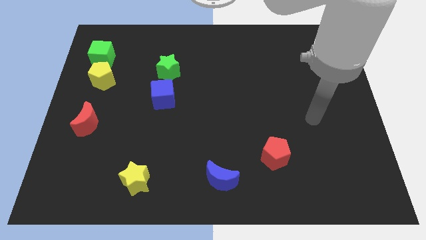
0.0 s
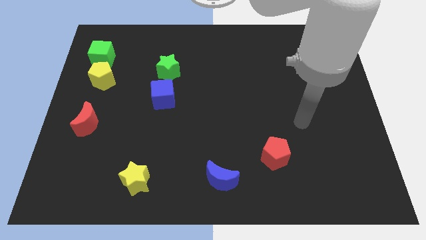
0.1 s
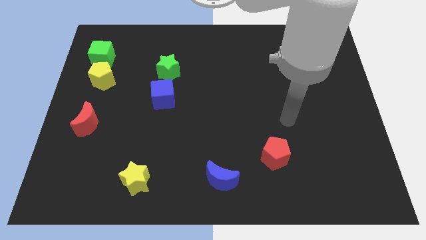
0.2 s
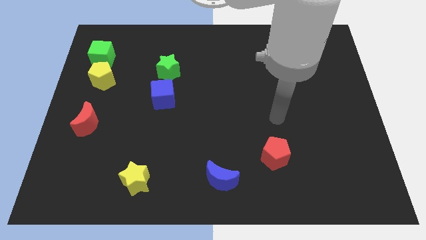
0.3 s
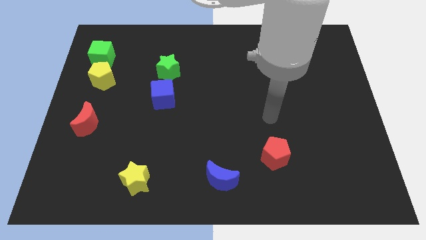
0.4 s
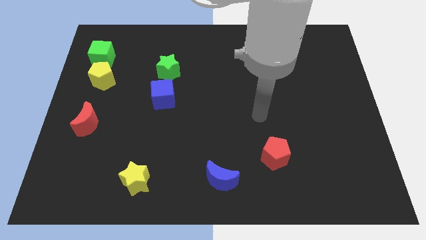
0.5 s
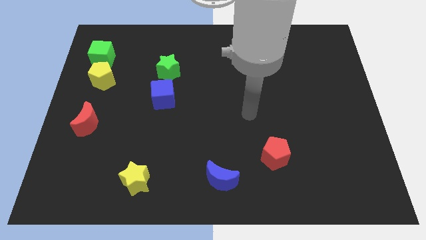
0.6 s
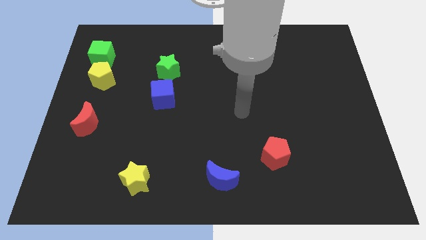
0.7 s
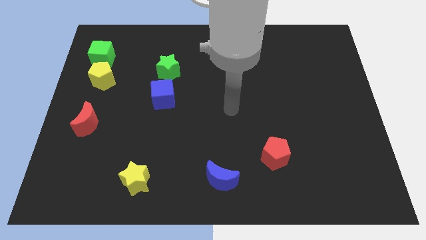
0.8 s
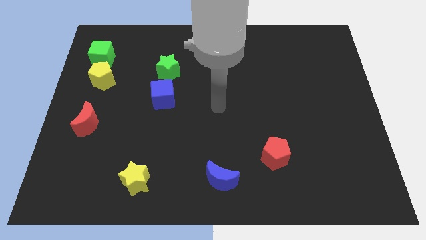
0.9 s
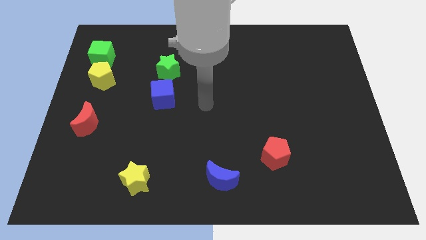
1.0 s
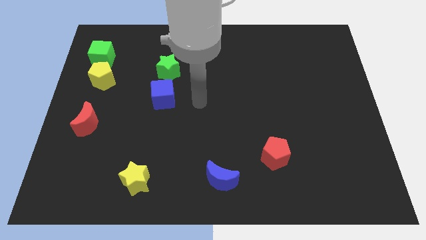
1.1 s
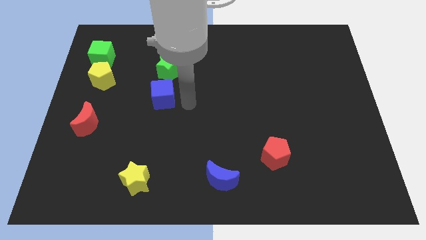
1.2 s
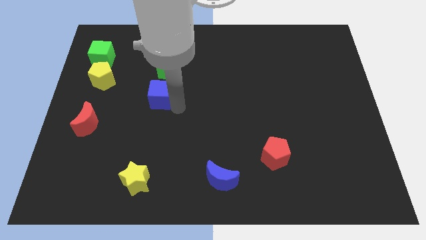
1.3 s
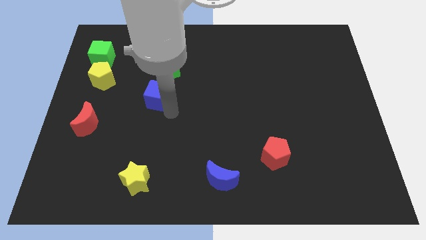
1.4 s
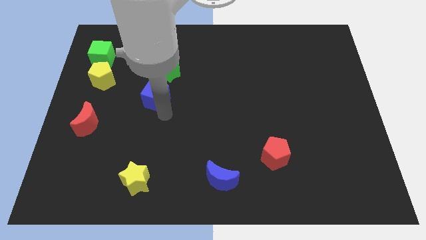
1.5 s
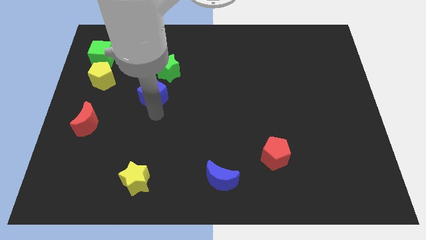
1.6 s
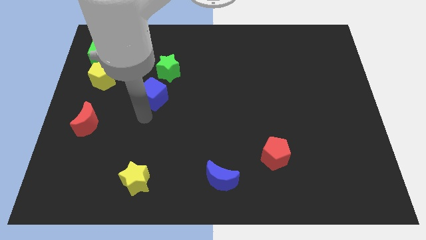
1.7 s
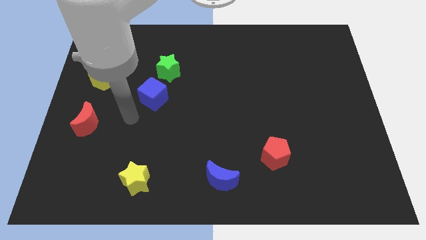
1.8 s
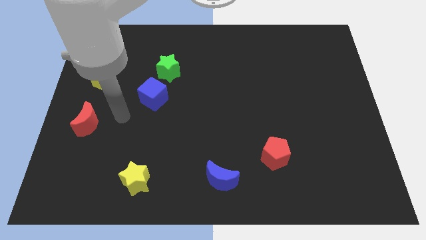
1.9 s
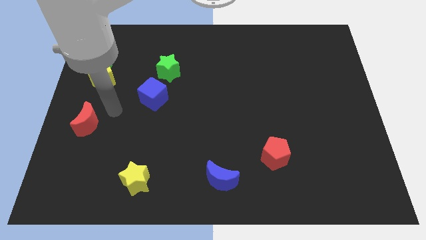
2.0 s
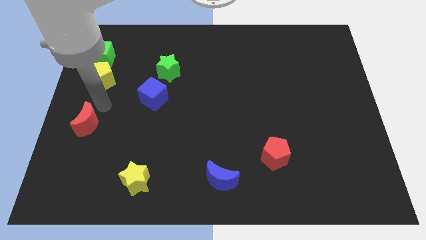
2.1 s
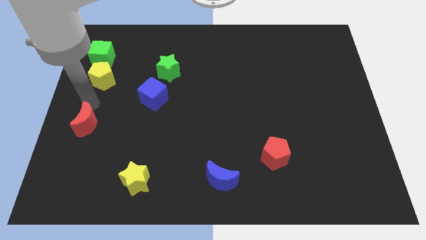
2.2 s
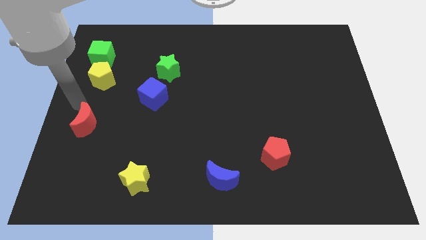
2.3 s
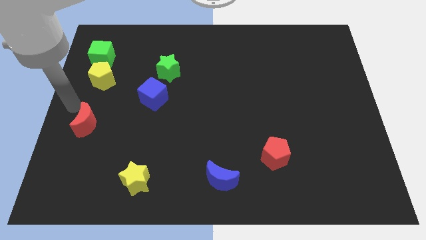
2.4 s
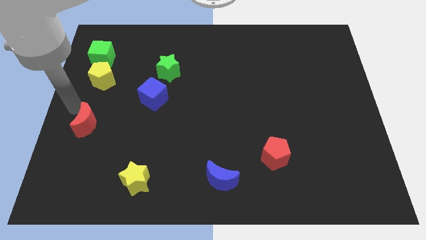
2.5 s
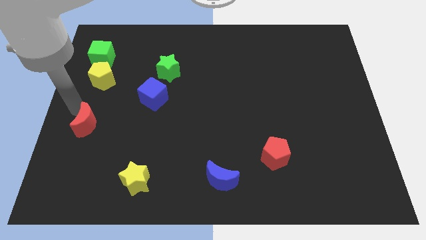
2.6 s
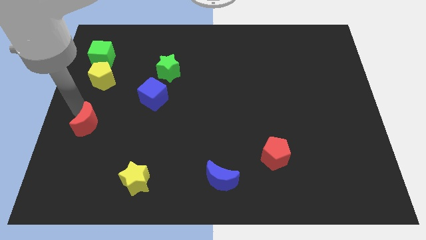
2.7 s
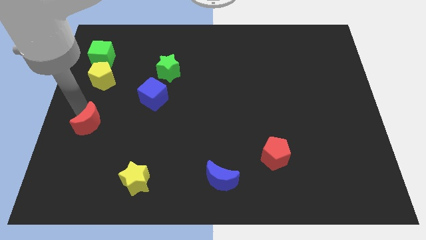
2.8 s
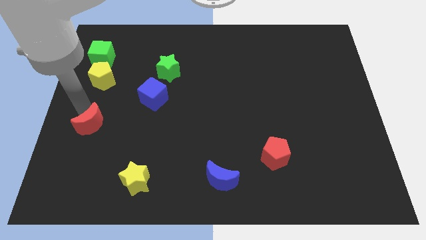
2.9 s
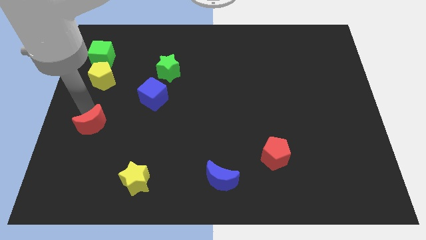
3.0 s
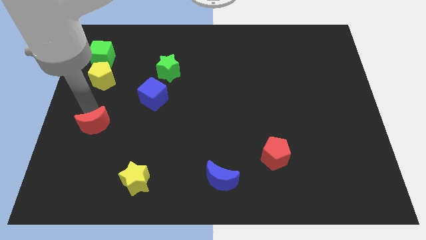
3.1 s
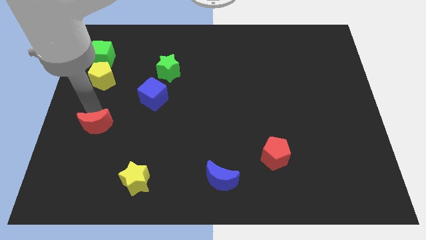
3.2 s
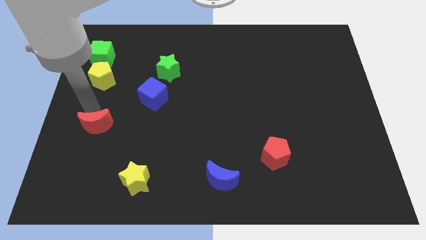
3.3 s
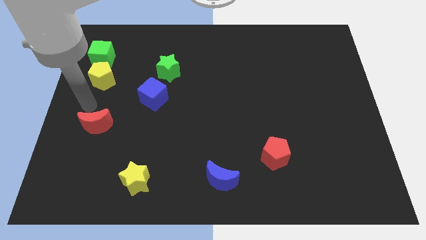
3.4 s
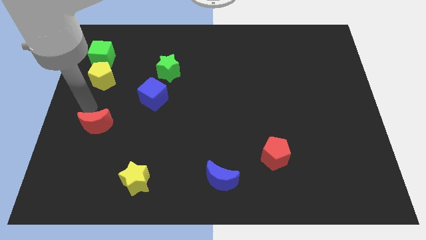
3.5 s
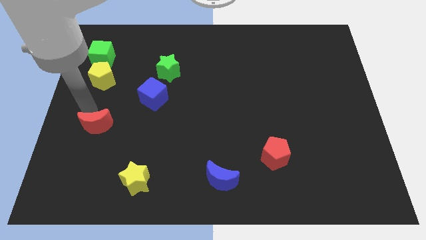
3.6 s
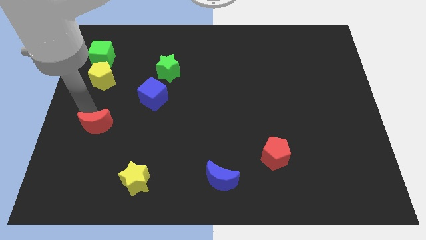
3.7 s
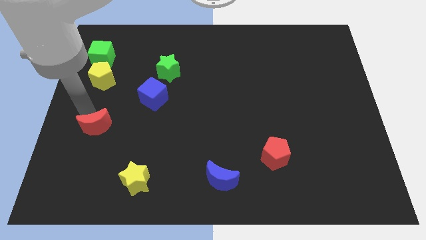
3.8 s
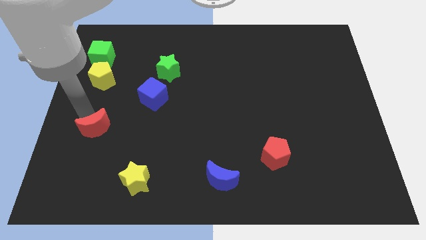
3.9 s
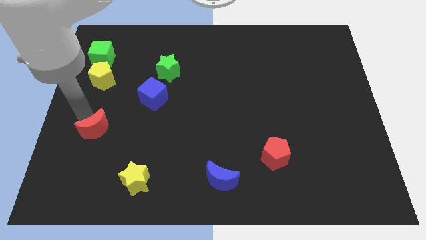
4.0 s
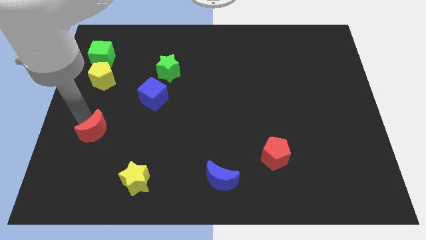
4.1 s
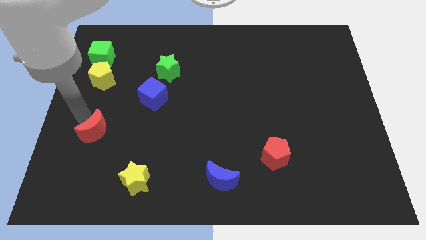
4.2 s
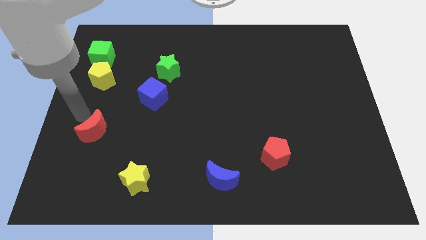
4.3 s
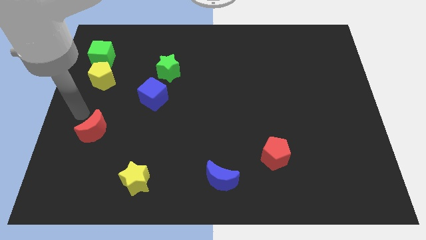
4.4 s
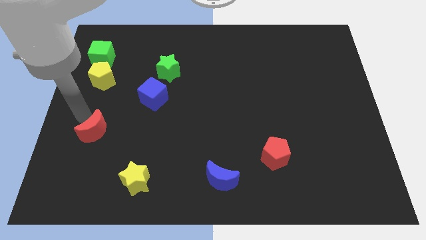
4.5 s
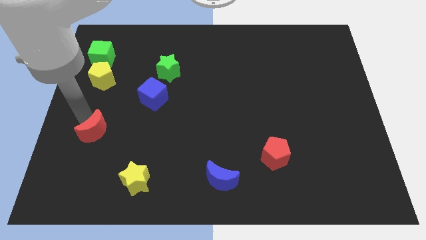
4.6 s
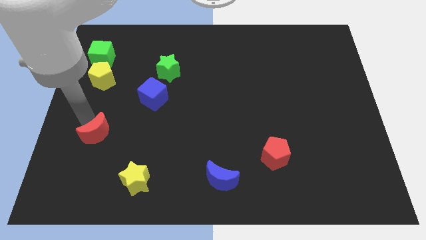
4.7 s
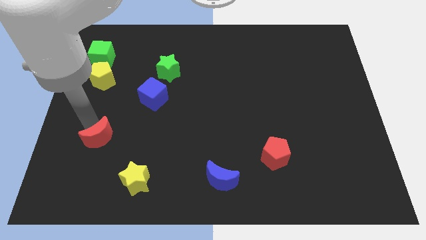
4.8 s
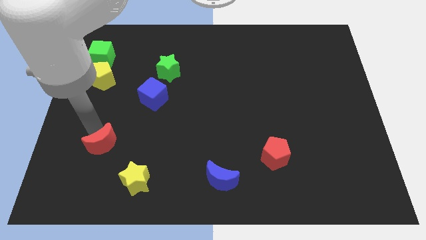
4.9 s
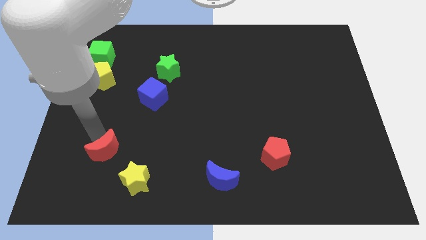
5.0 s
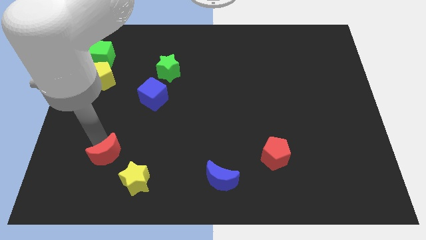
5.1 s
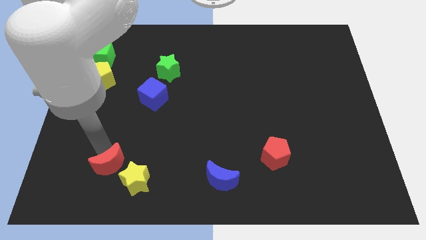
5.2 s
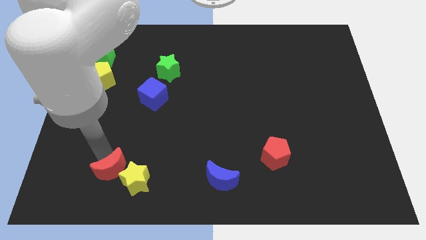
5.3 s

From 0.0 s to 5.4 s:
put the red moon to the yellow star

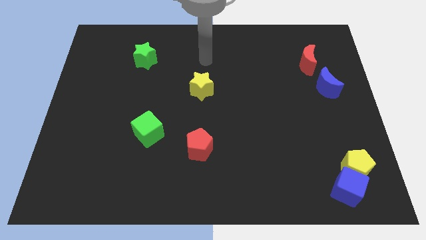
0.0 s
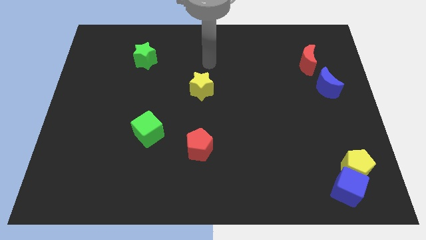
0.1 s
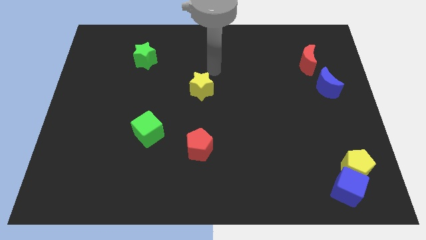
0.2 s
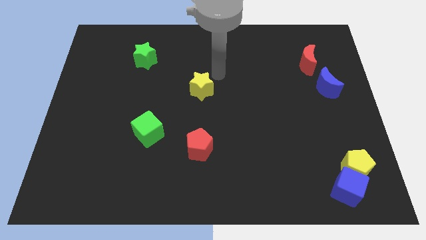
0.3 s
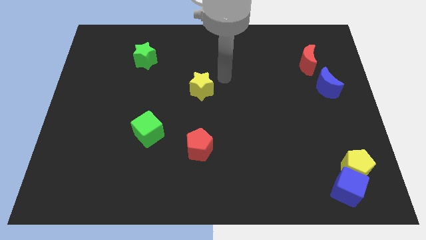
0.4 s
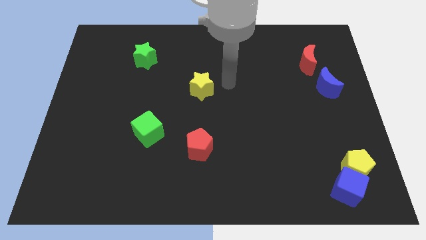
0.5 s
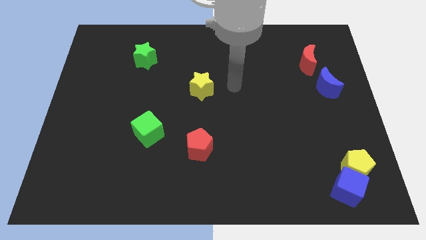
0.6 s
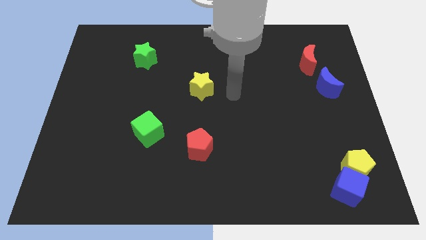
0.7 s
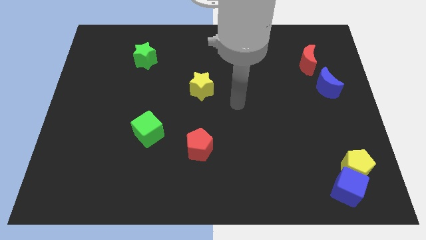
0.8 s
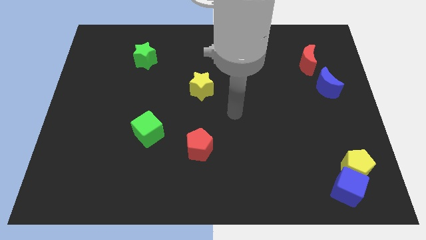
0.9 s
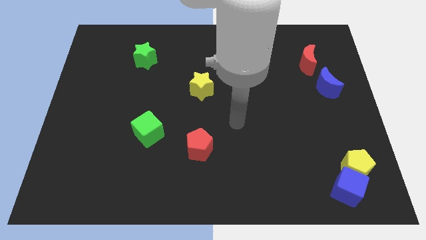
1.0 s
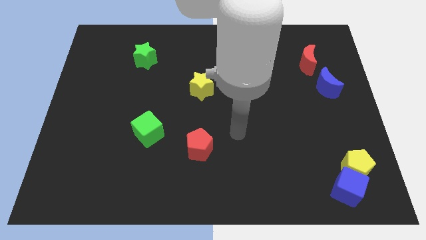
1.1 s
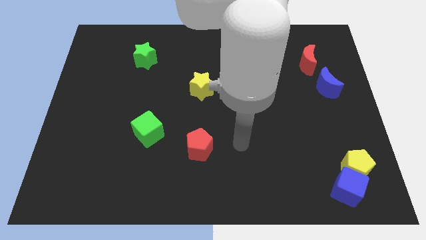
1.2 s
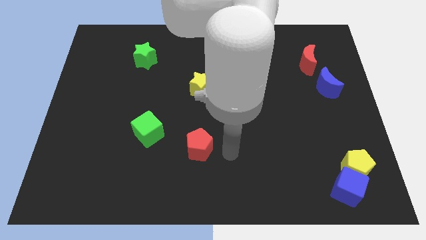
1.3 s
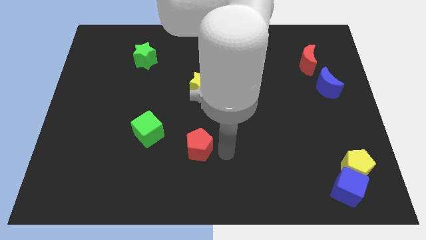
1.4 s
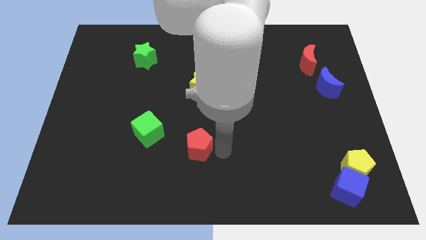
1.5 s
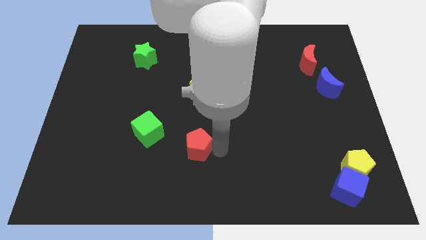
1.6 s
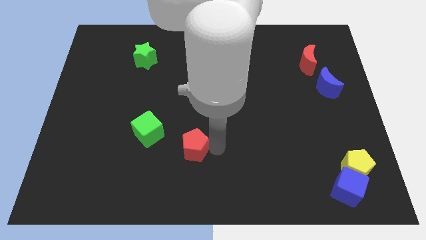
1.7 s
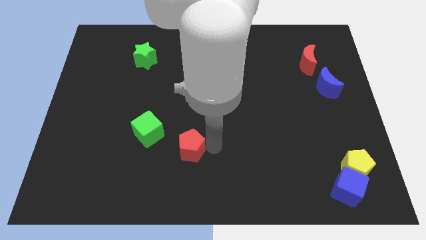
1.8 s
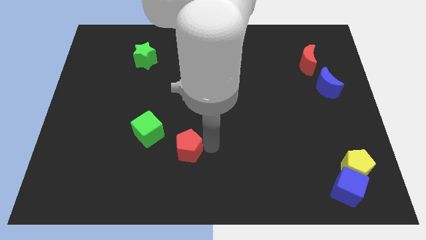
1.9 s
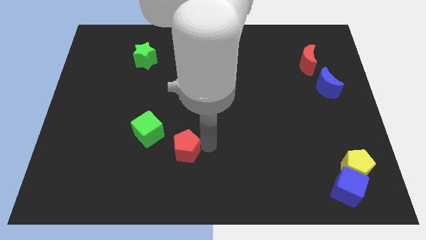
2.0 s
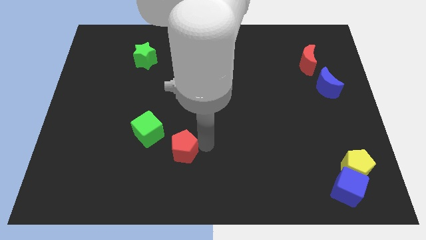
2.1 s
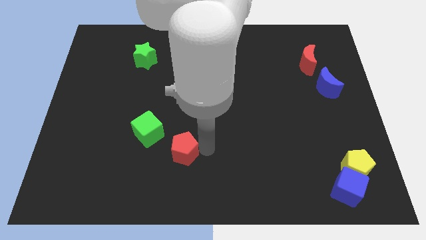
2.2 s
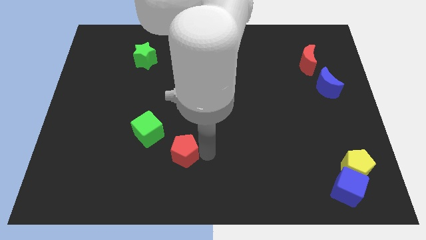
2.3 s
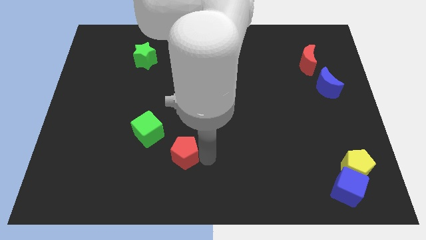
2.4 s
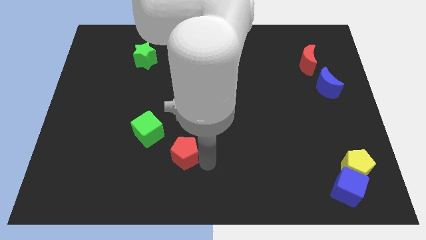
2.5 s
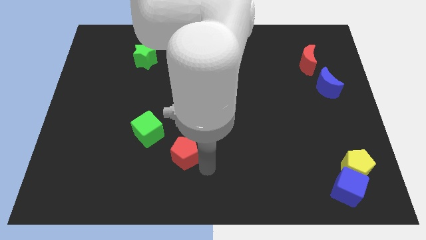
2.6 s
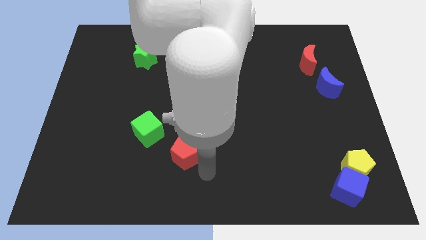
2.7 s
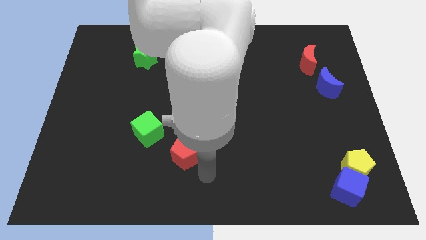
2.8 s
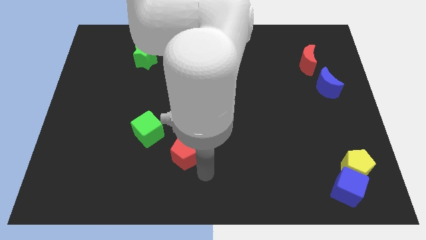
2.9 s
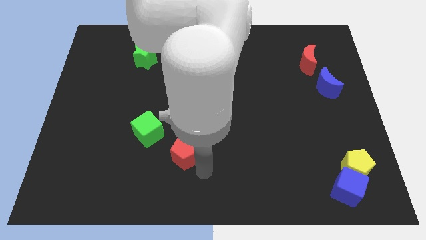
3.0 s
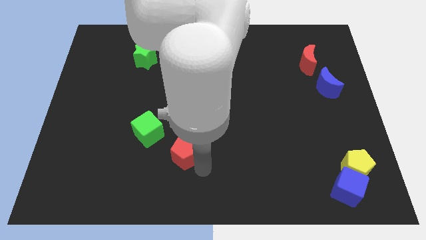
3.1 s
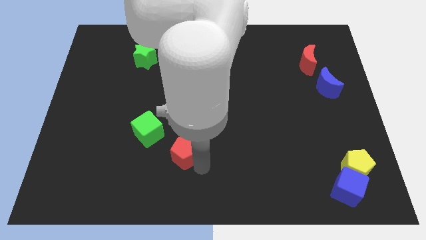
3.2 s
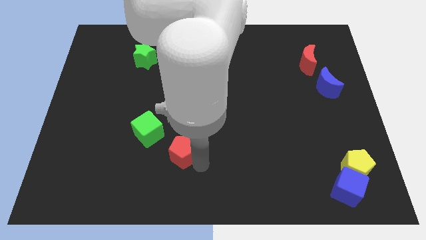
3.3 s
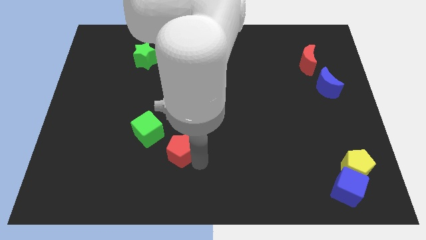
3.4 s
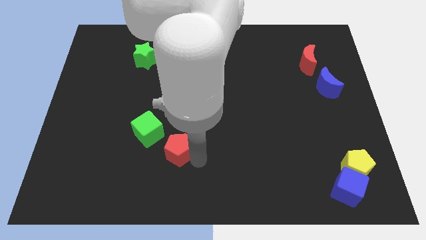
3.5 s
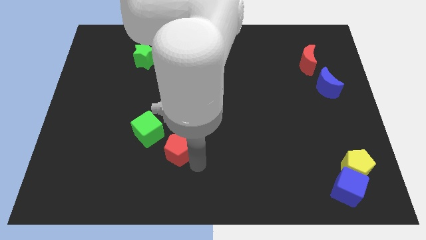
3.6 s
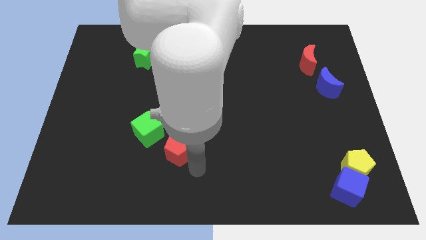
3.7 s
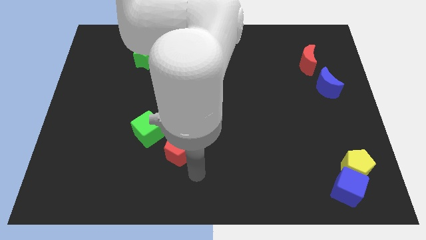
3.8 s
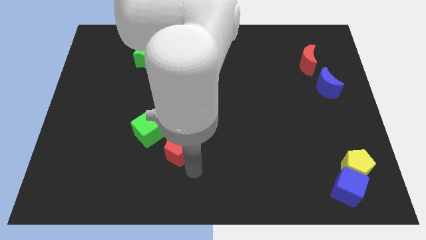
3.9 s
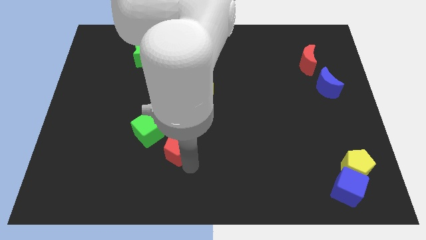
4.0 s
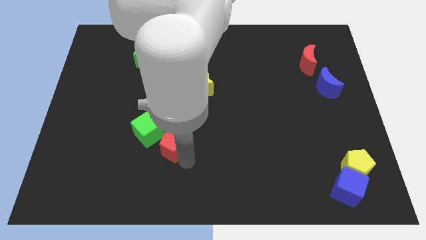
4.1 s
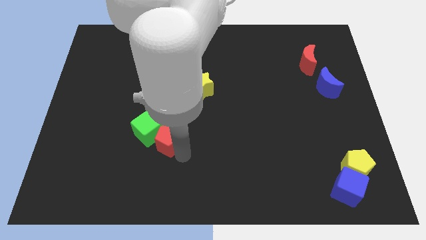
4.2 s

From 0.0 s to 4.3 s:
move the red pentagon next to the green cube
